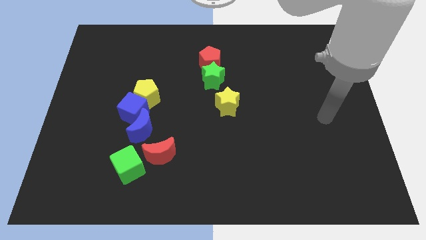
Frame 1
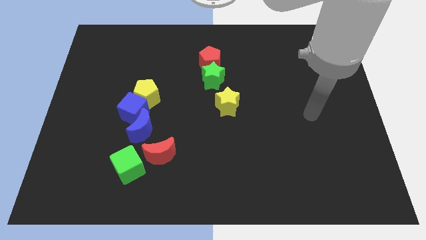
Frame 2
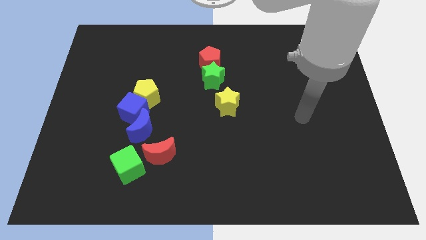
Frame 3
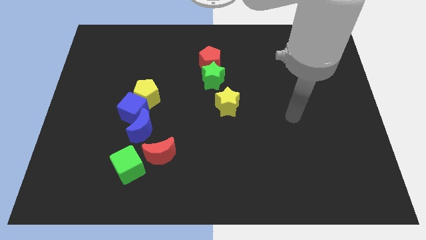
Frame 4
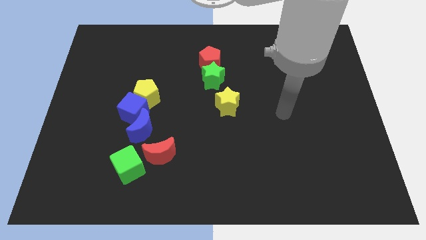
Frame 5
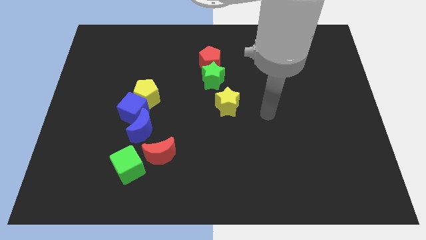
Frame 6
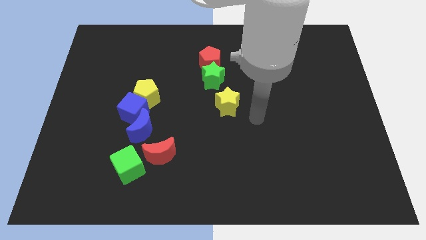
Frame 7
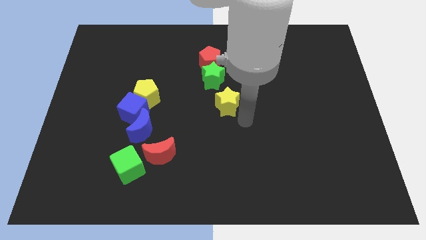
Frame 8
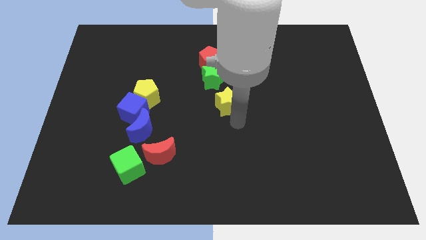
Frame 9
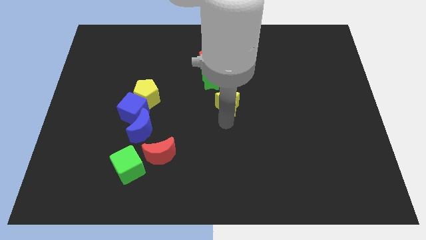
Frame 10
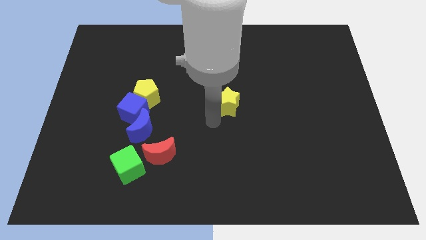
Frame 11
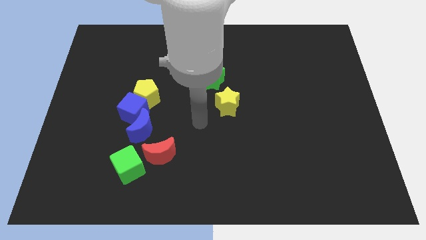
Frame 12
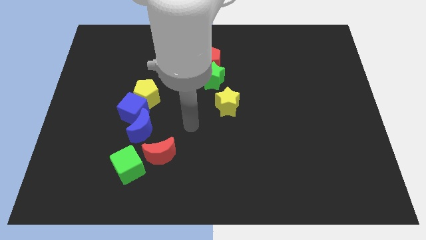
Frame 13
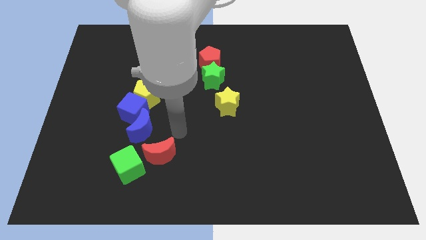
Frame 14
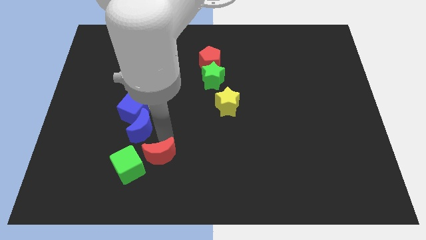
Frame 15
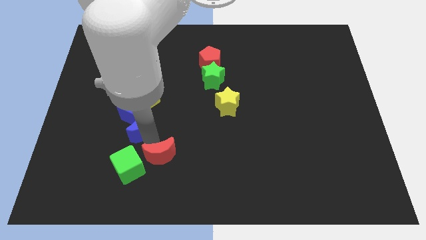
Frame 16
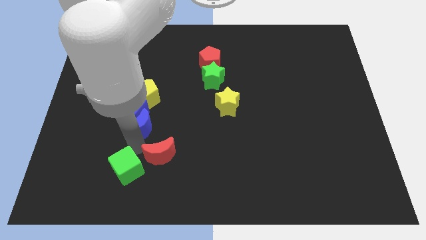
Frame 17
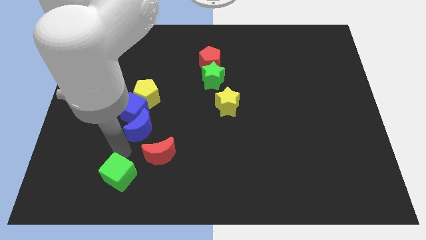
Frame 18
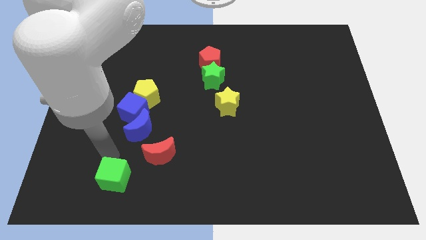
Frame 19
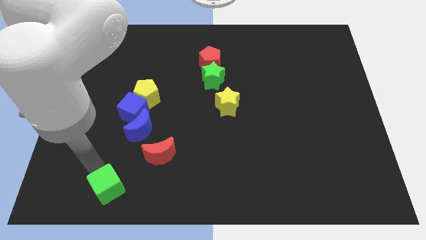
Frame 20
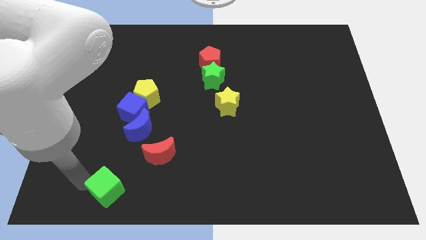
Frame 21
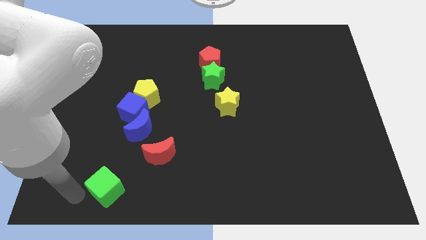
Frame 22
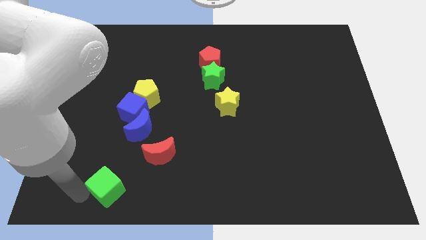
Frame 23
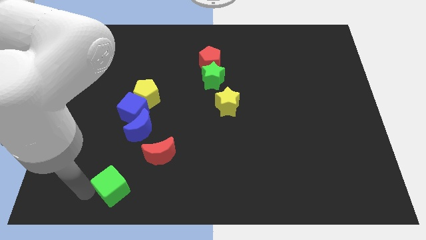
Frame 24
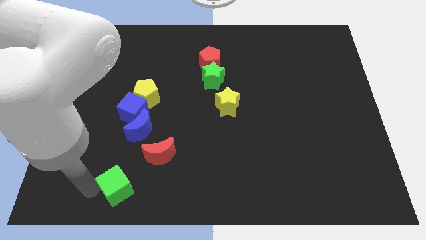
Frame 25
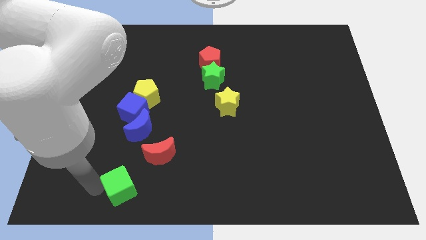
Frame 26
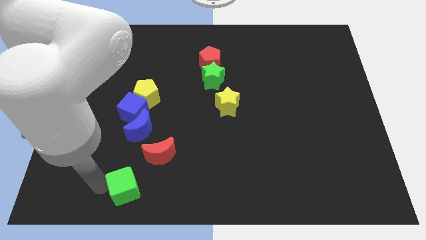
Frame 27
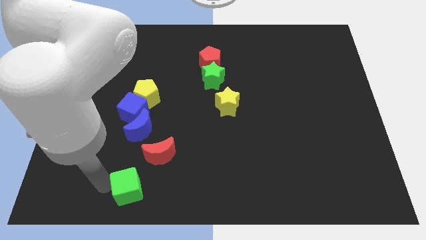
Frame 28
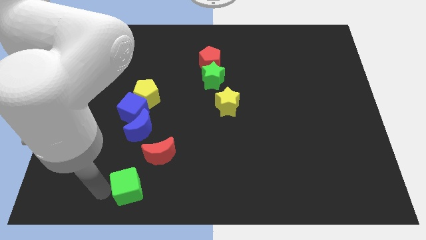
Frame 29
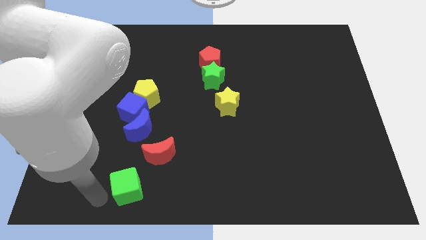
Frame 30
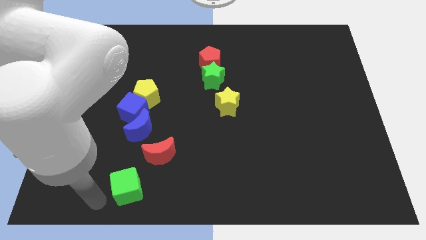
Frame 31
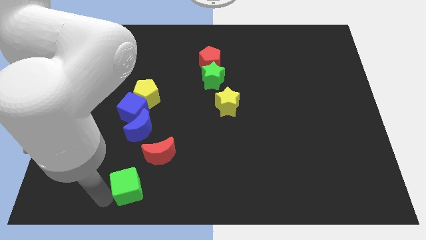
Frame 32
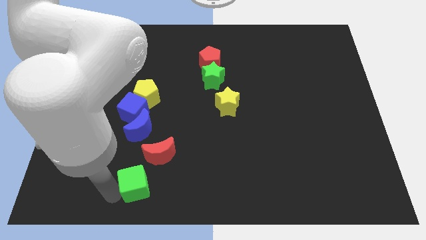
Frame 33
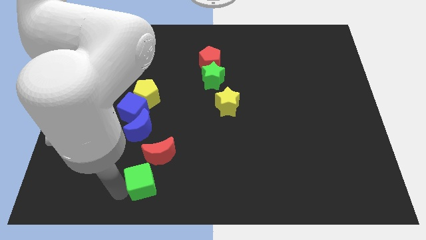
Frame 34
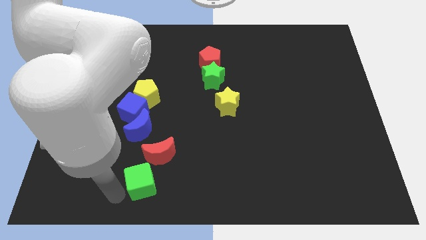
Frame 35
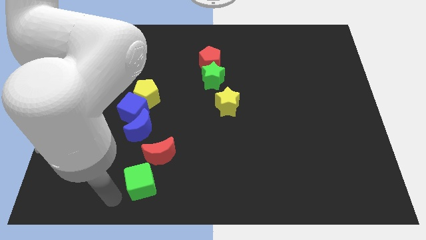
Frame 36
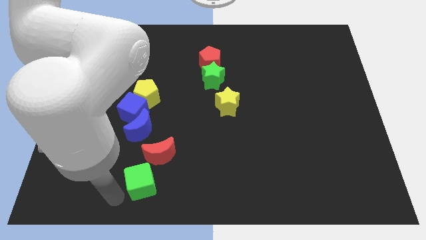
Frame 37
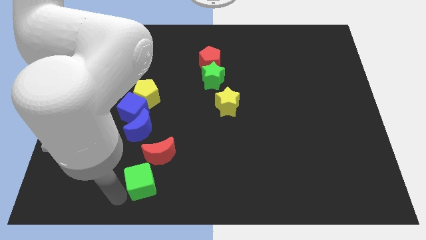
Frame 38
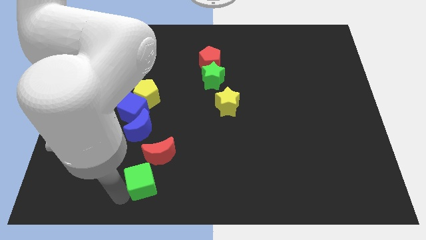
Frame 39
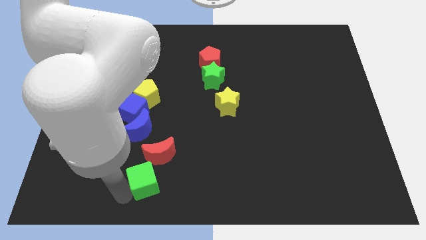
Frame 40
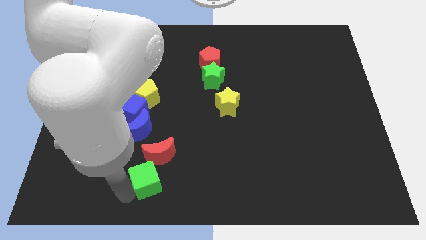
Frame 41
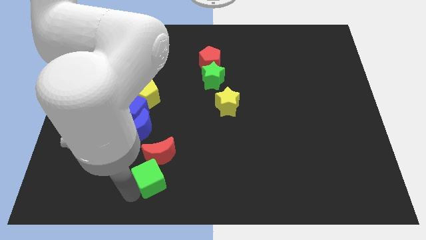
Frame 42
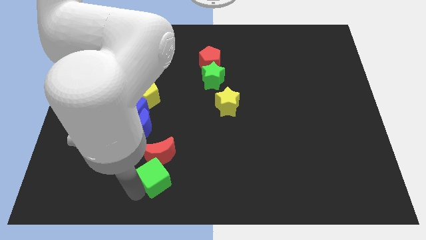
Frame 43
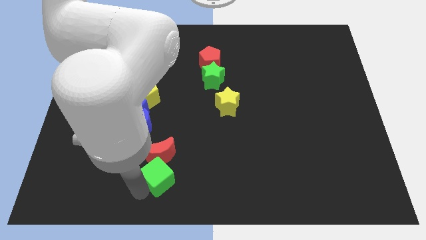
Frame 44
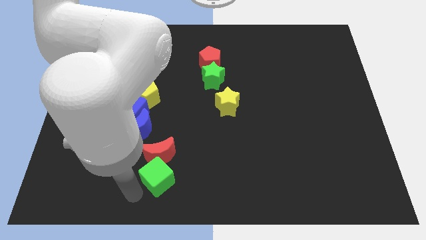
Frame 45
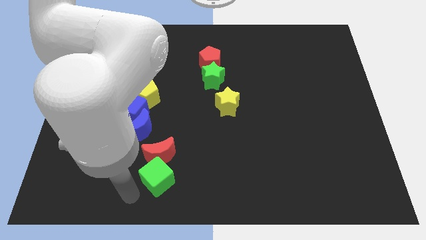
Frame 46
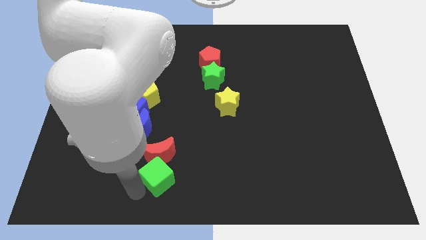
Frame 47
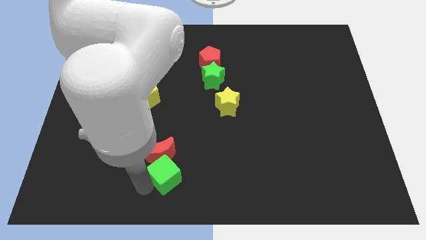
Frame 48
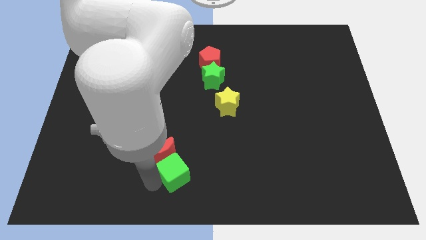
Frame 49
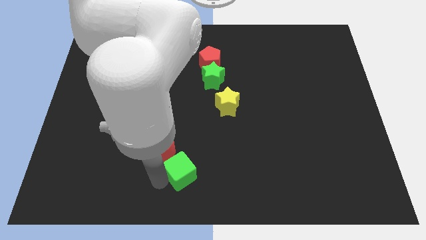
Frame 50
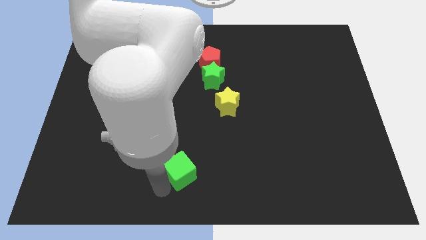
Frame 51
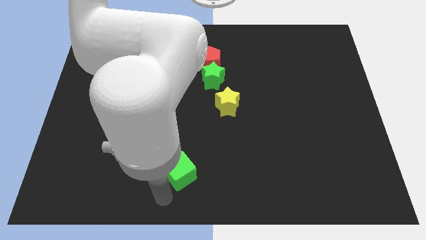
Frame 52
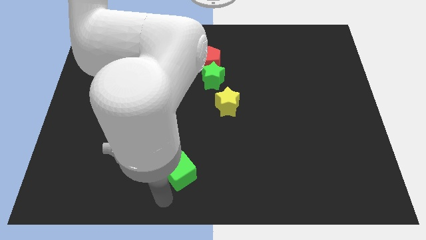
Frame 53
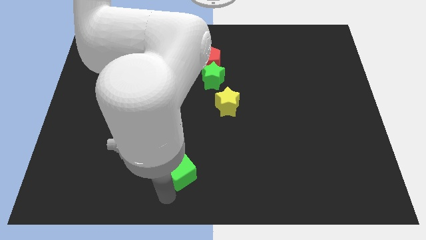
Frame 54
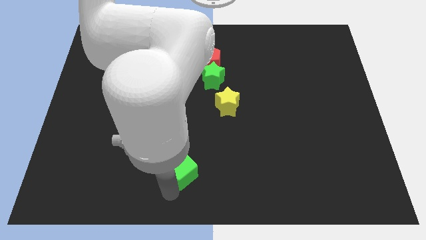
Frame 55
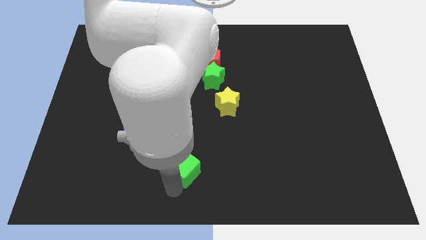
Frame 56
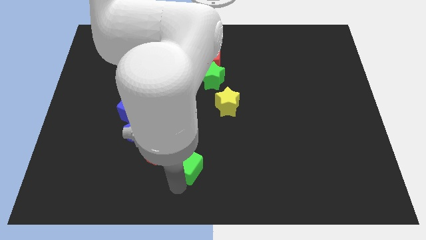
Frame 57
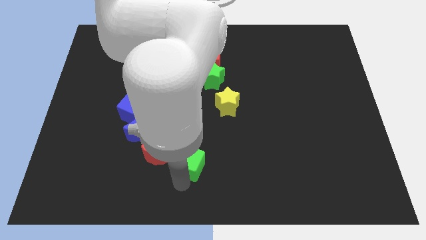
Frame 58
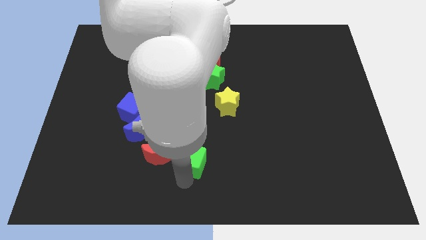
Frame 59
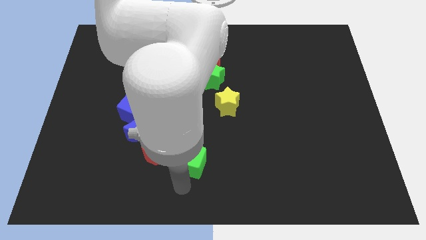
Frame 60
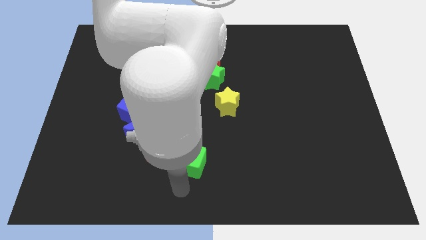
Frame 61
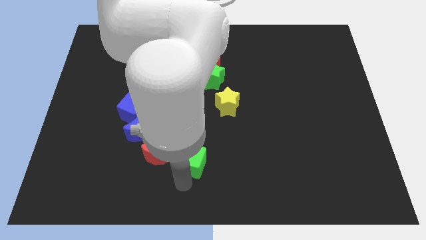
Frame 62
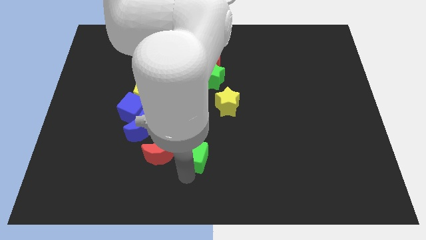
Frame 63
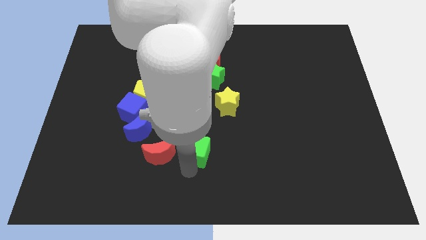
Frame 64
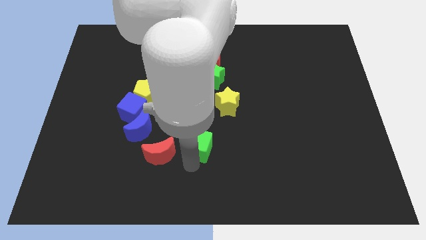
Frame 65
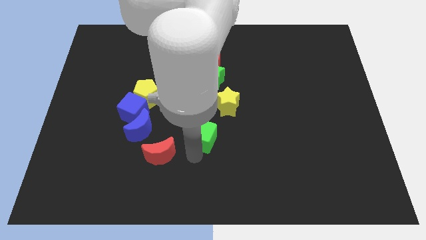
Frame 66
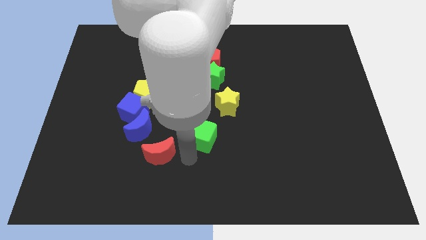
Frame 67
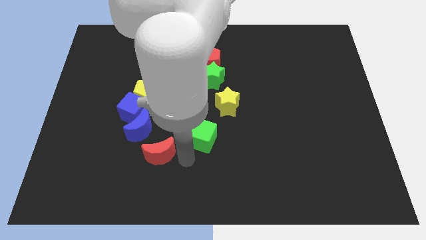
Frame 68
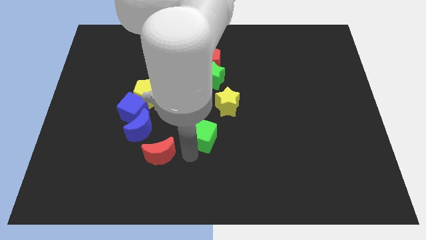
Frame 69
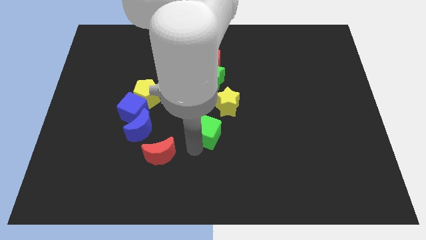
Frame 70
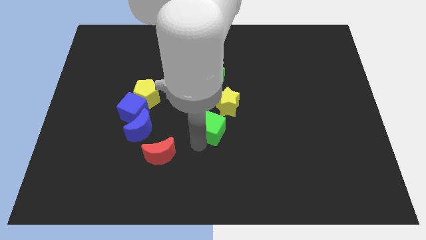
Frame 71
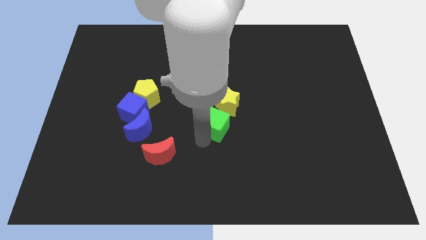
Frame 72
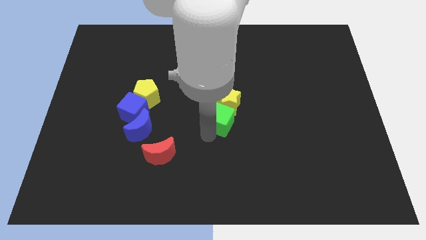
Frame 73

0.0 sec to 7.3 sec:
move the green cube to the yellow star

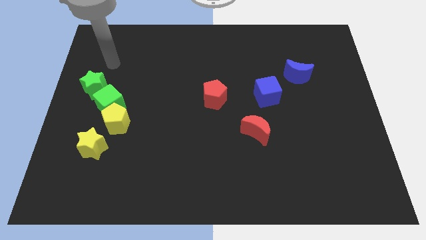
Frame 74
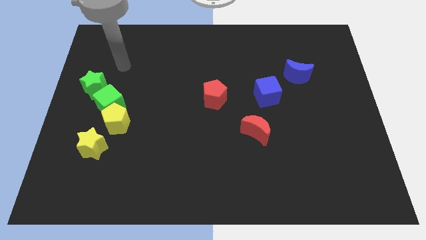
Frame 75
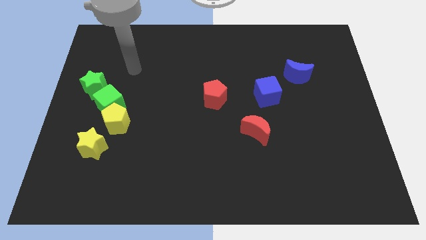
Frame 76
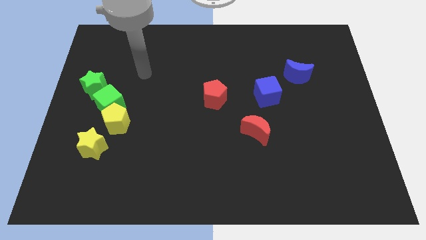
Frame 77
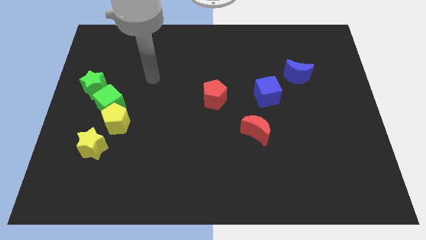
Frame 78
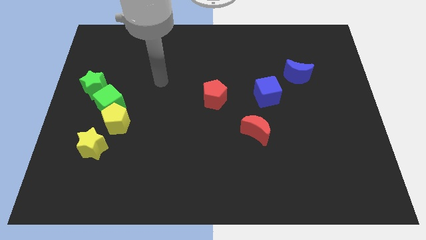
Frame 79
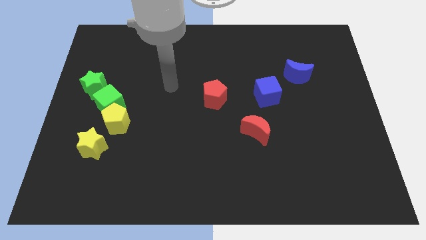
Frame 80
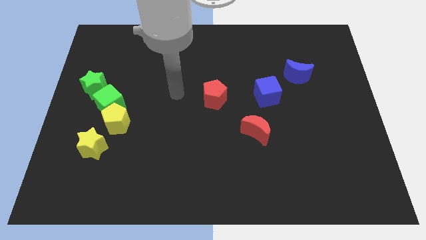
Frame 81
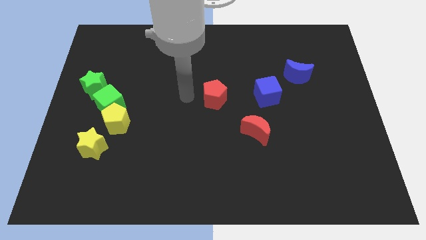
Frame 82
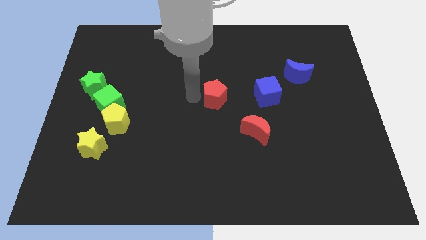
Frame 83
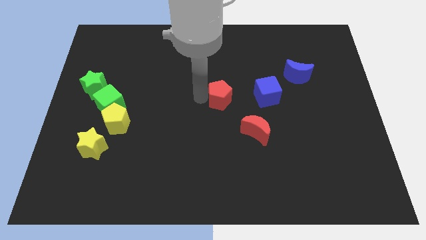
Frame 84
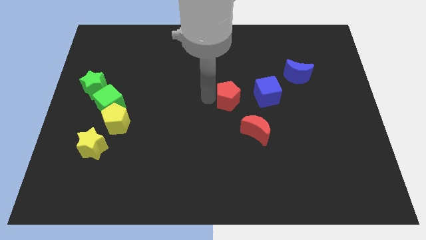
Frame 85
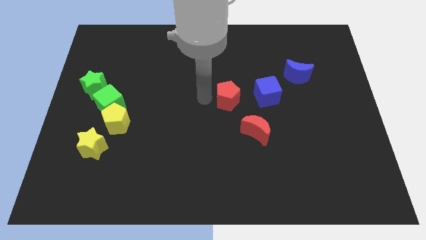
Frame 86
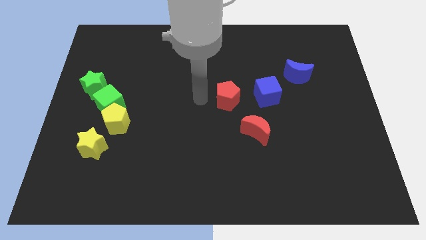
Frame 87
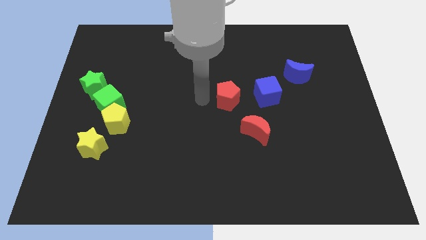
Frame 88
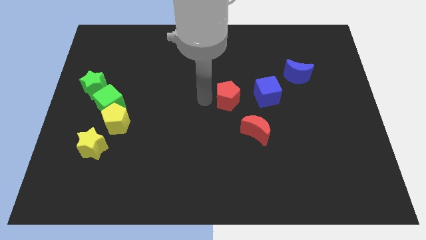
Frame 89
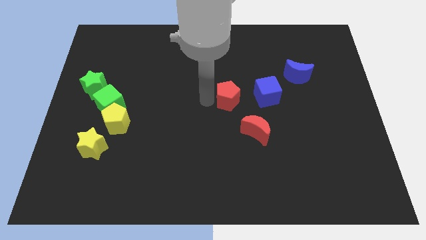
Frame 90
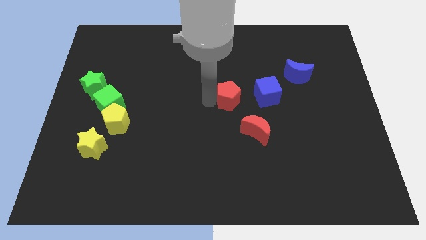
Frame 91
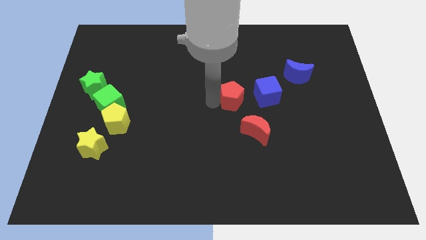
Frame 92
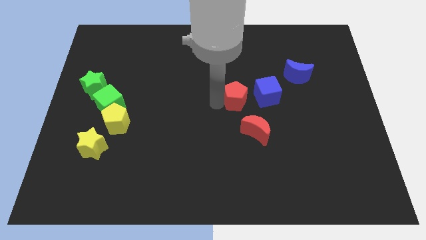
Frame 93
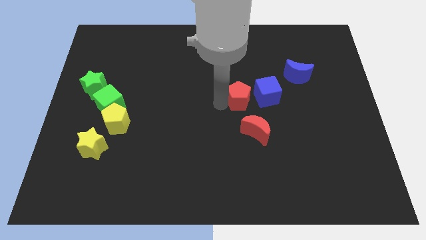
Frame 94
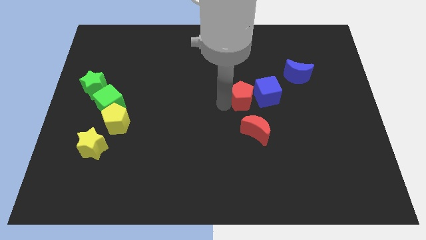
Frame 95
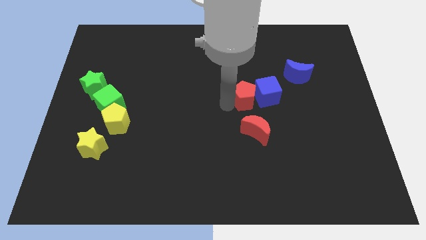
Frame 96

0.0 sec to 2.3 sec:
push the red pentagon to the blue cube
